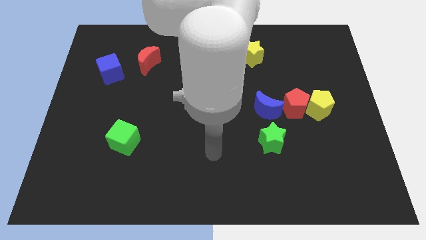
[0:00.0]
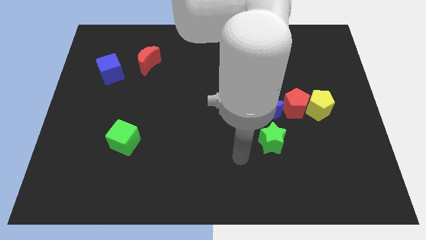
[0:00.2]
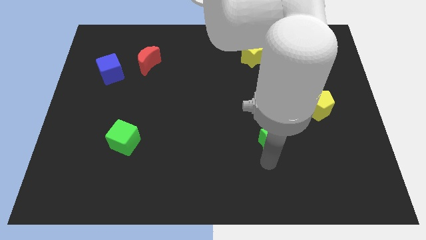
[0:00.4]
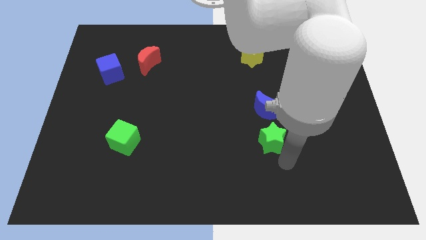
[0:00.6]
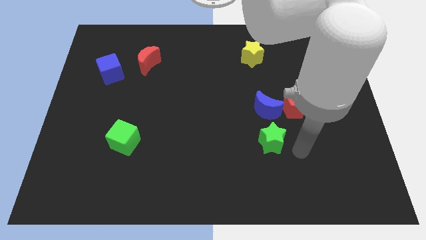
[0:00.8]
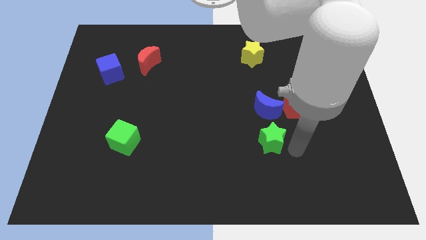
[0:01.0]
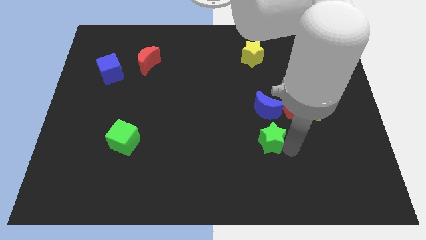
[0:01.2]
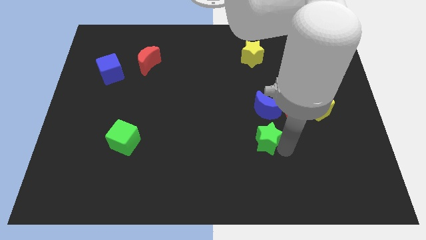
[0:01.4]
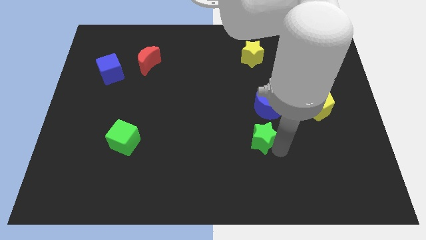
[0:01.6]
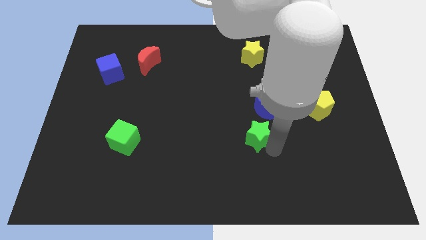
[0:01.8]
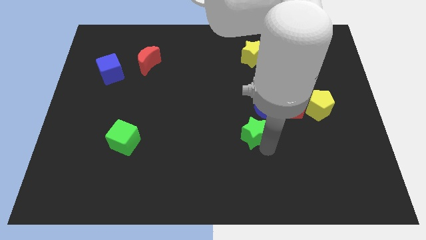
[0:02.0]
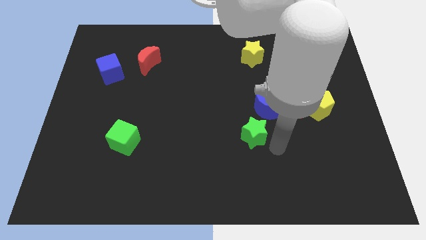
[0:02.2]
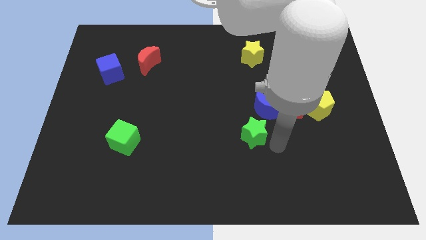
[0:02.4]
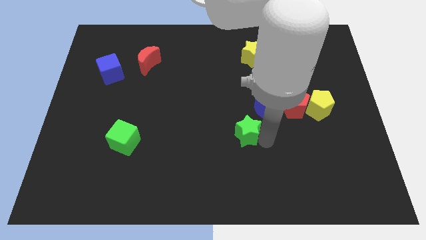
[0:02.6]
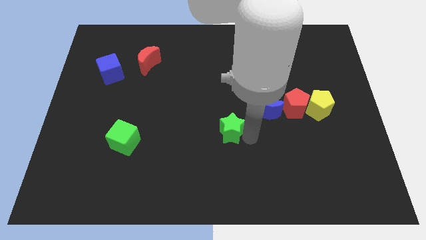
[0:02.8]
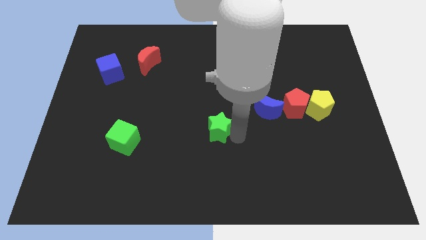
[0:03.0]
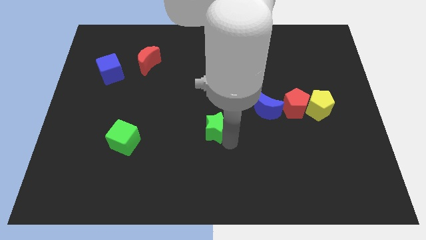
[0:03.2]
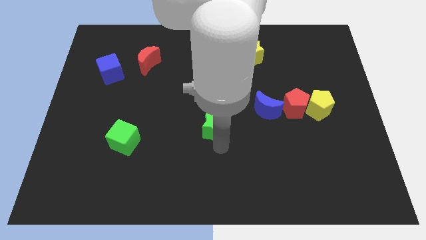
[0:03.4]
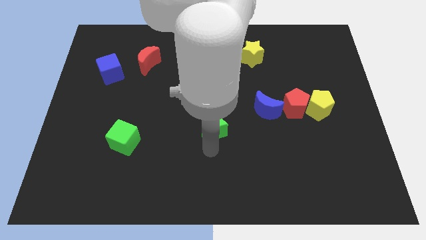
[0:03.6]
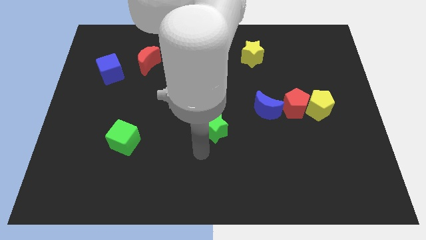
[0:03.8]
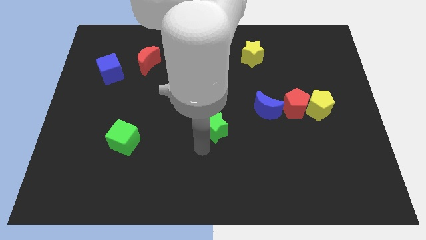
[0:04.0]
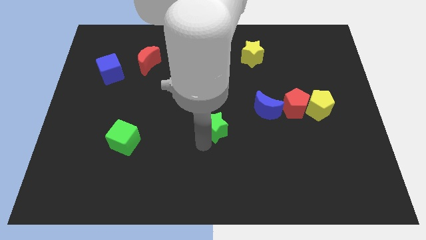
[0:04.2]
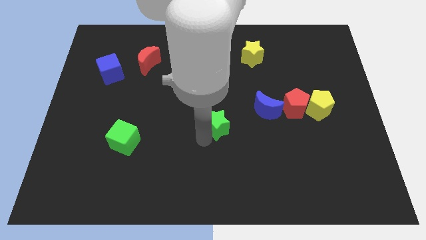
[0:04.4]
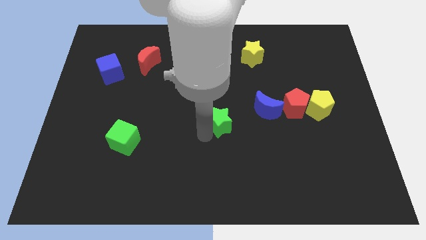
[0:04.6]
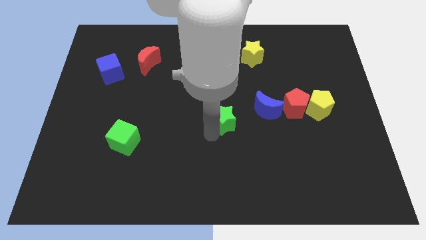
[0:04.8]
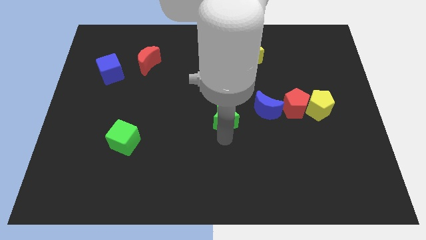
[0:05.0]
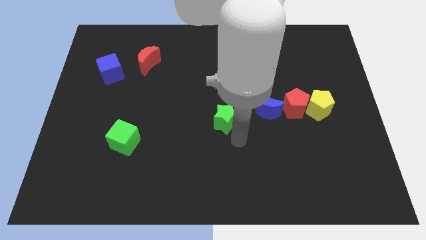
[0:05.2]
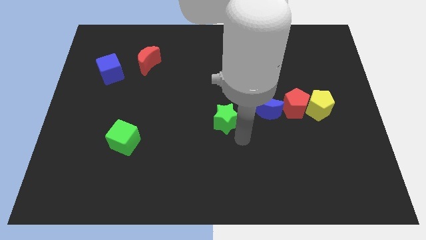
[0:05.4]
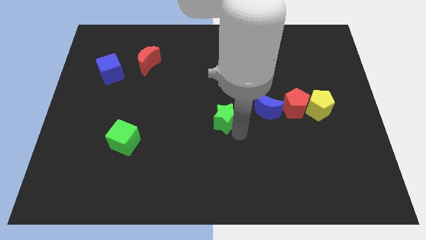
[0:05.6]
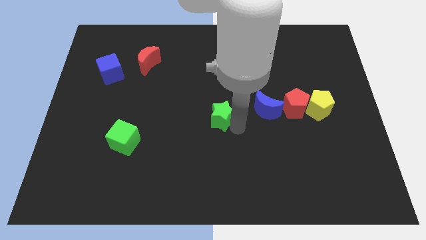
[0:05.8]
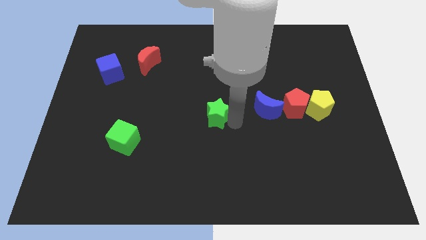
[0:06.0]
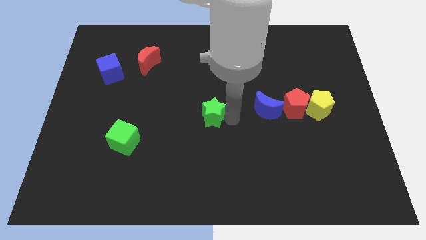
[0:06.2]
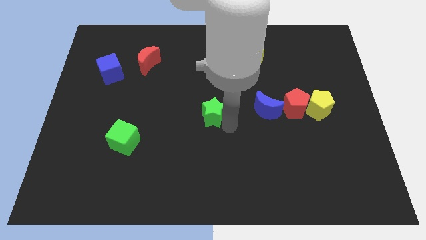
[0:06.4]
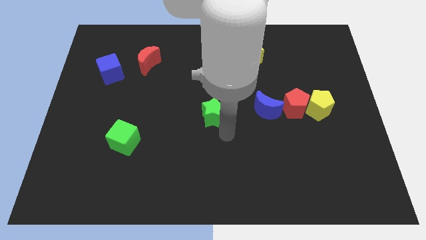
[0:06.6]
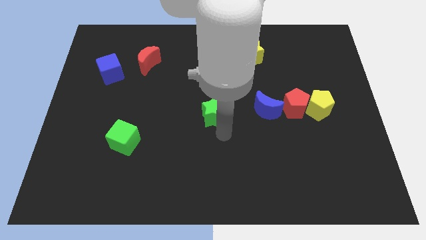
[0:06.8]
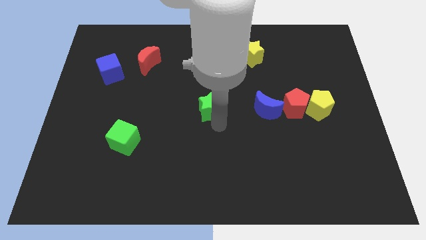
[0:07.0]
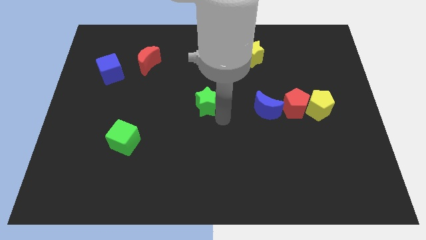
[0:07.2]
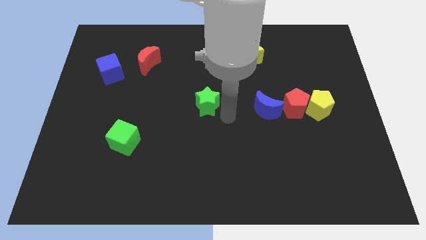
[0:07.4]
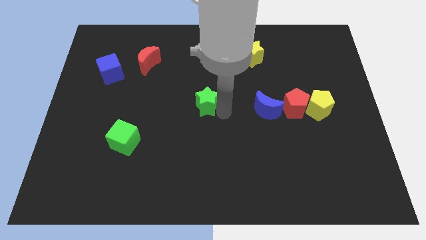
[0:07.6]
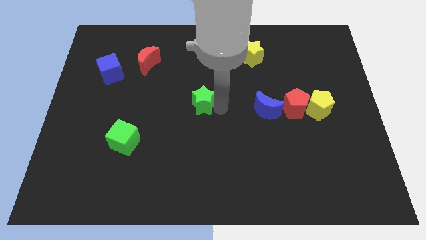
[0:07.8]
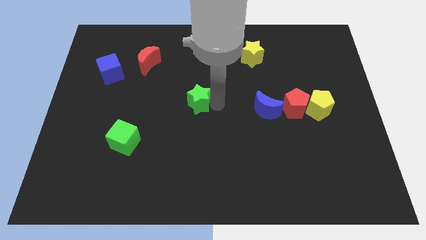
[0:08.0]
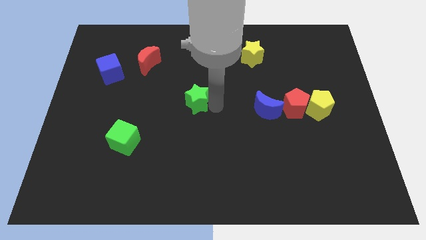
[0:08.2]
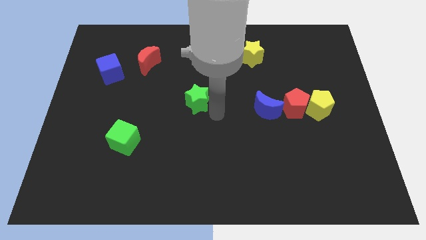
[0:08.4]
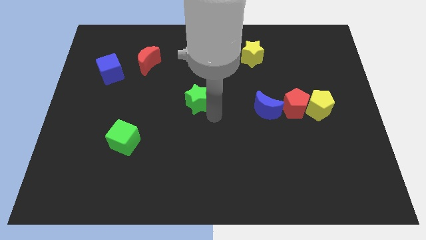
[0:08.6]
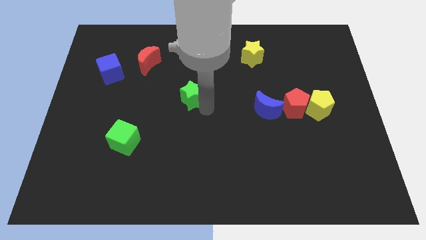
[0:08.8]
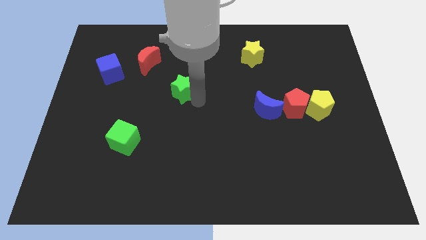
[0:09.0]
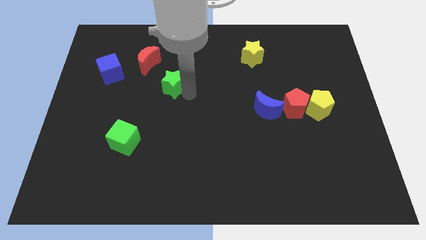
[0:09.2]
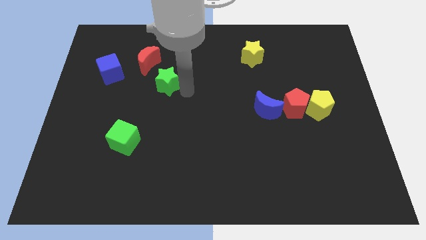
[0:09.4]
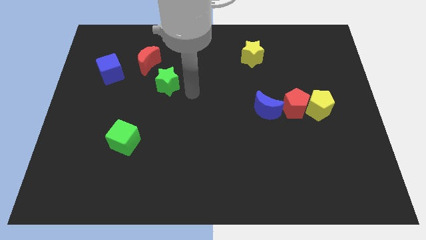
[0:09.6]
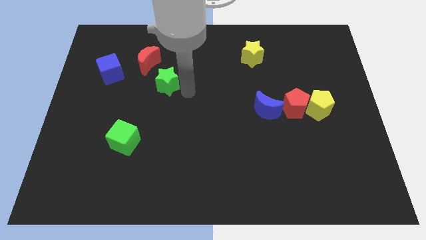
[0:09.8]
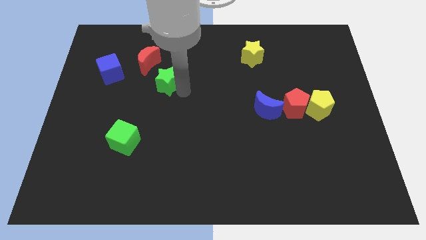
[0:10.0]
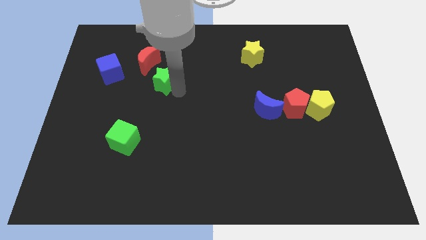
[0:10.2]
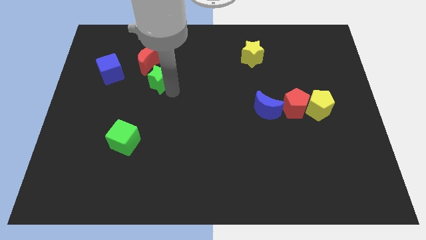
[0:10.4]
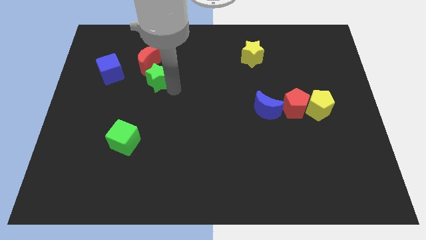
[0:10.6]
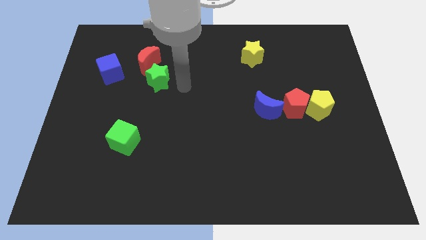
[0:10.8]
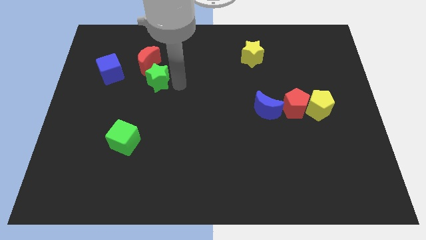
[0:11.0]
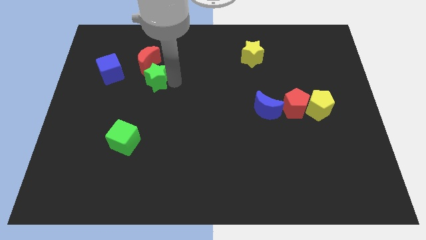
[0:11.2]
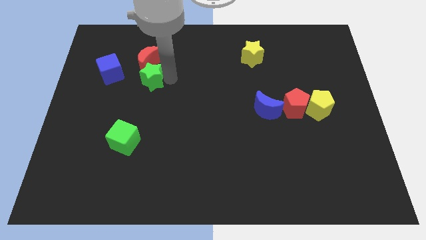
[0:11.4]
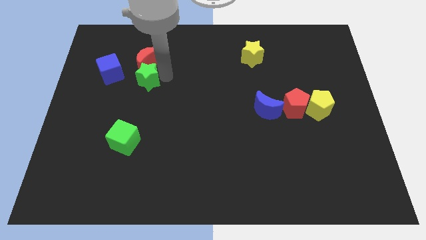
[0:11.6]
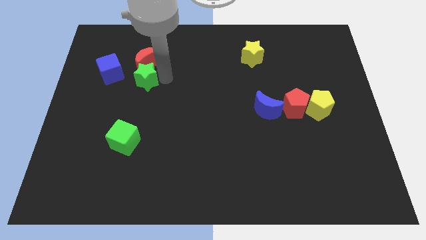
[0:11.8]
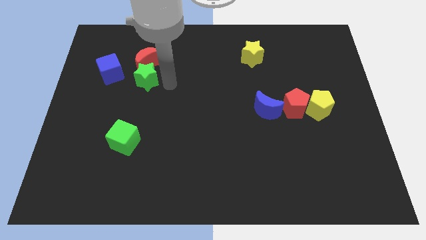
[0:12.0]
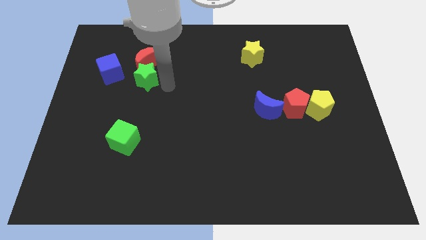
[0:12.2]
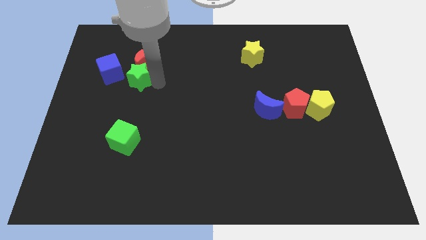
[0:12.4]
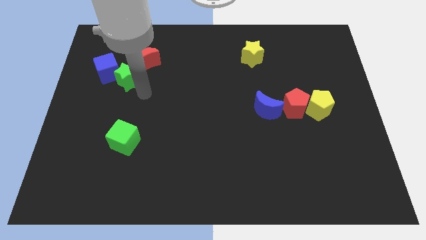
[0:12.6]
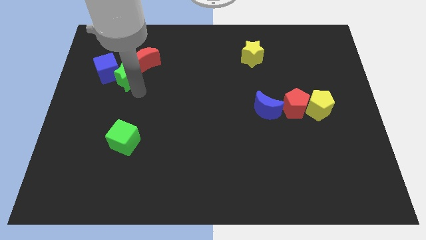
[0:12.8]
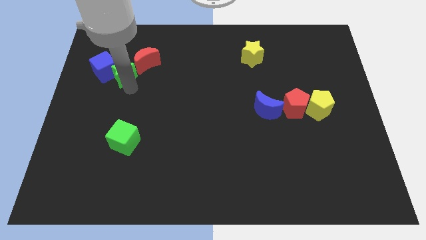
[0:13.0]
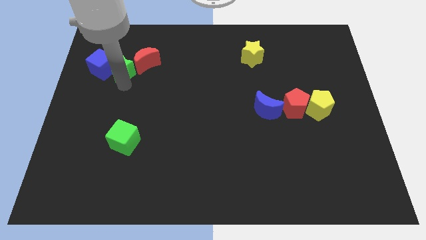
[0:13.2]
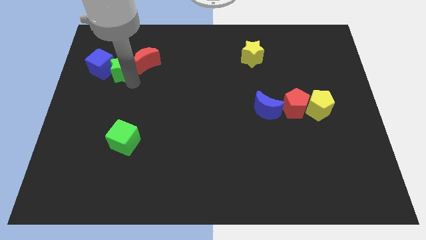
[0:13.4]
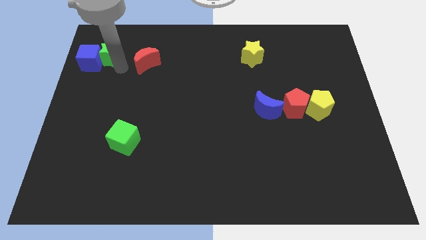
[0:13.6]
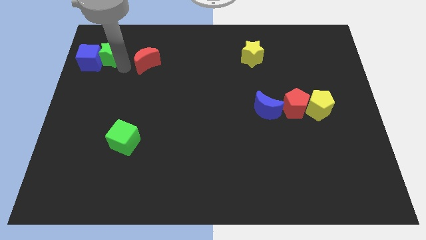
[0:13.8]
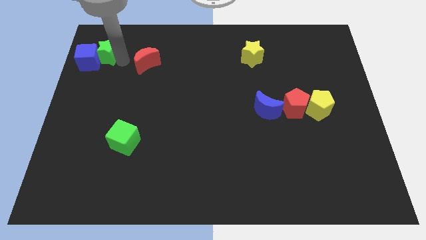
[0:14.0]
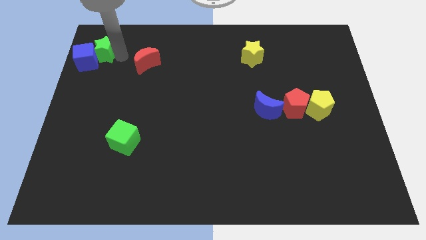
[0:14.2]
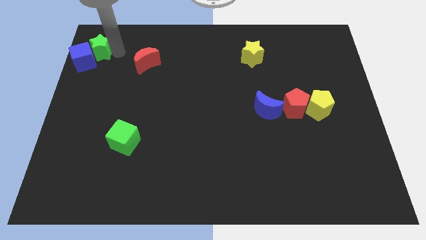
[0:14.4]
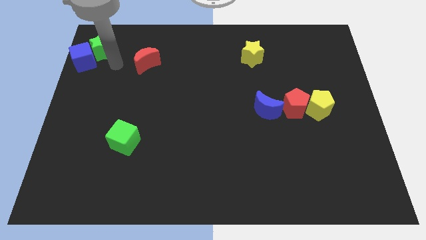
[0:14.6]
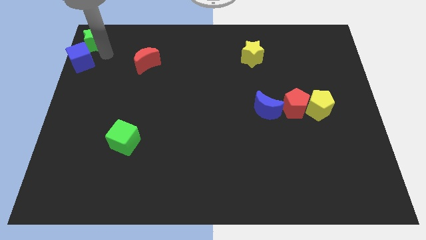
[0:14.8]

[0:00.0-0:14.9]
slide the green star to the top left
